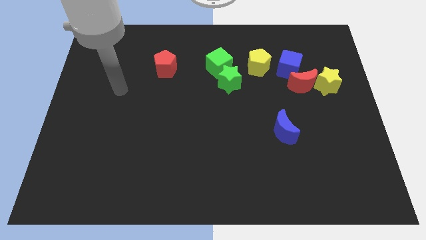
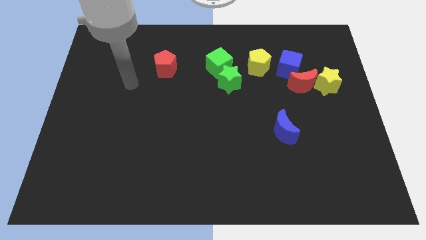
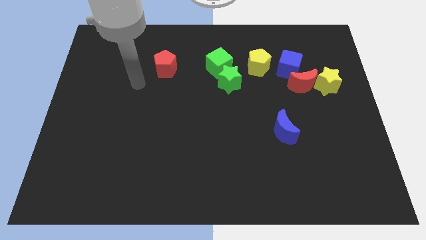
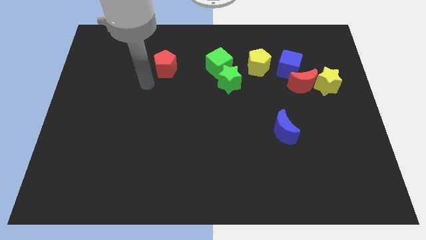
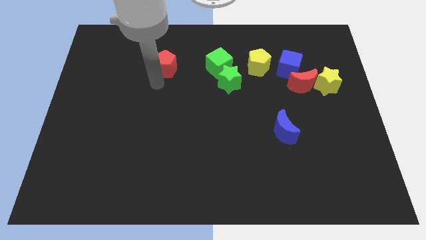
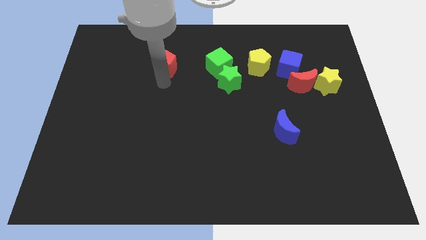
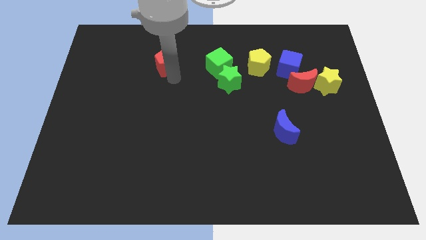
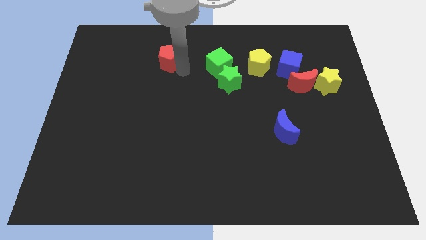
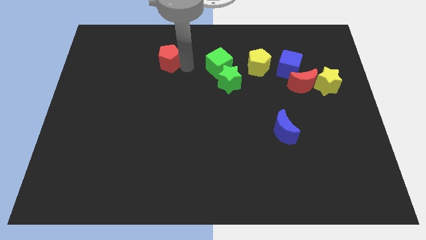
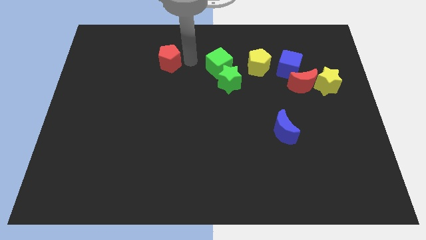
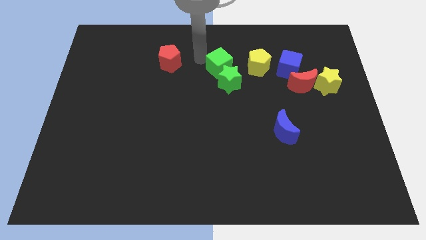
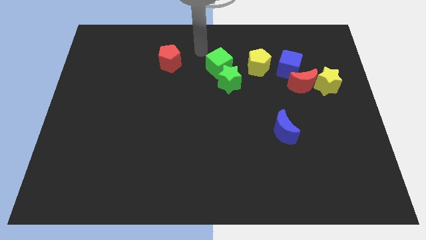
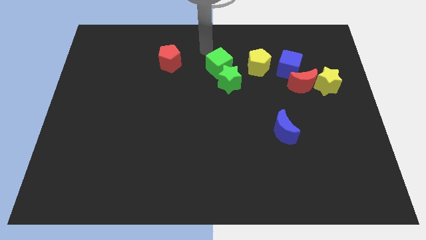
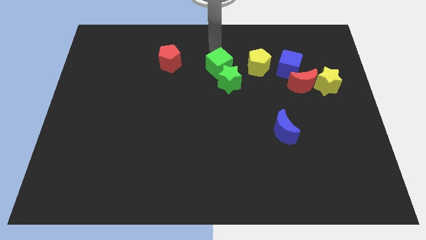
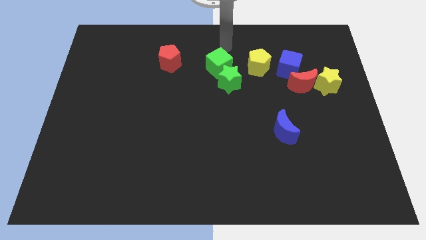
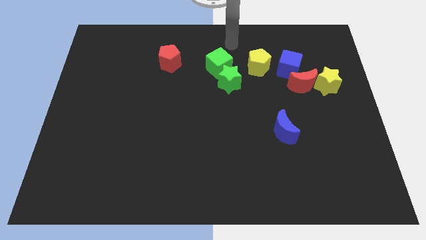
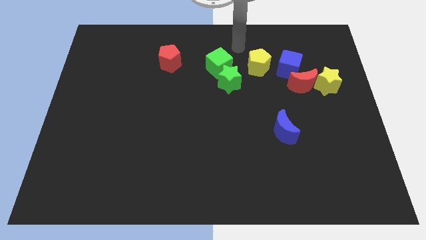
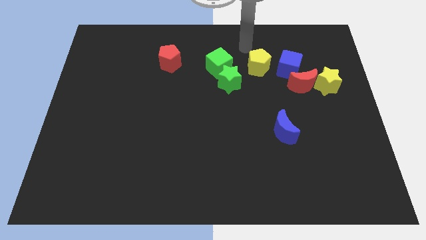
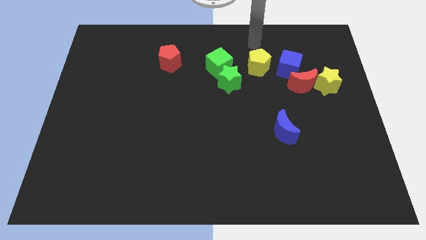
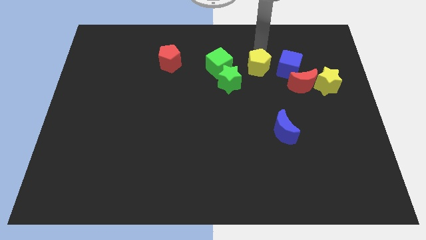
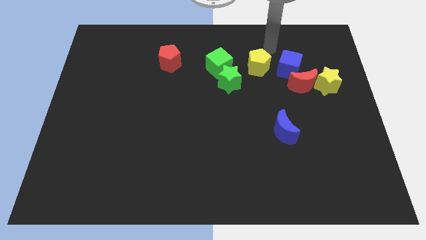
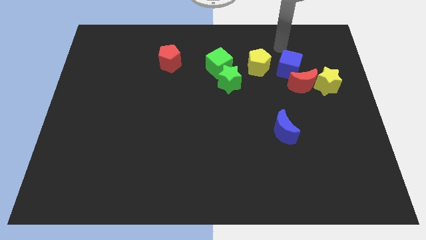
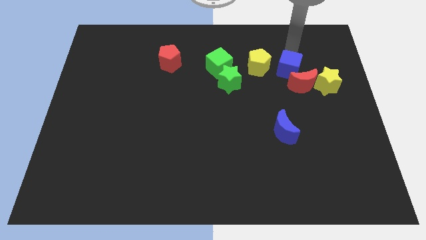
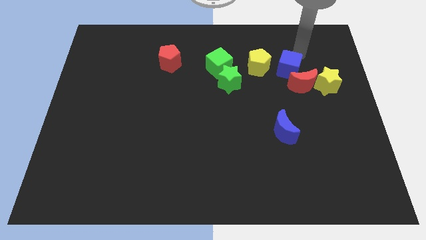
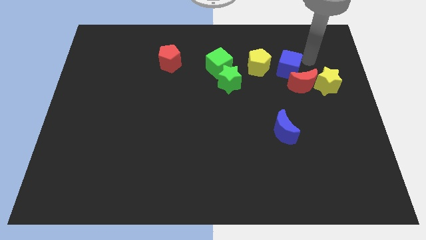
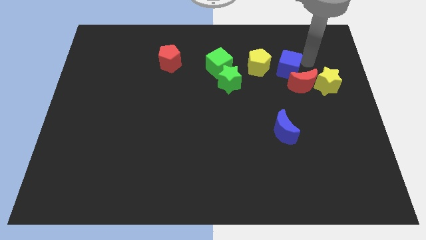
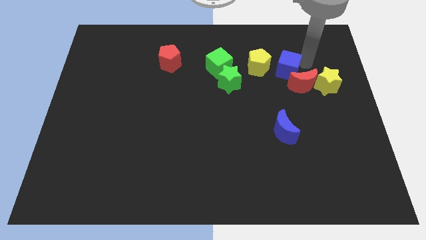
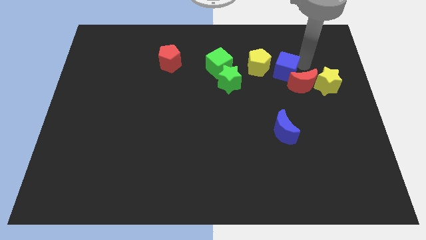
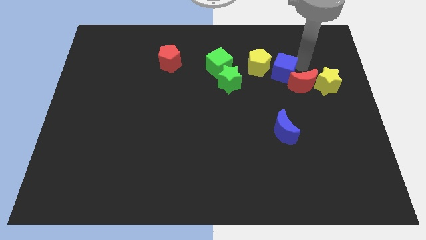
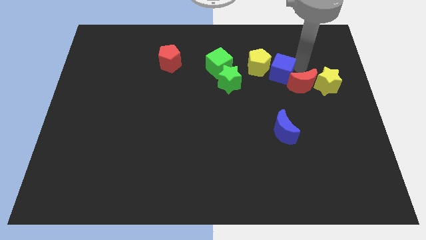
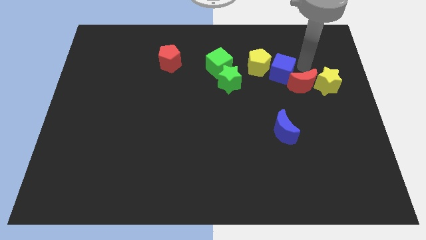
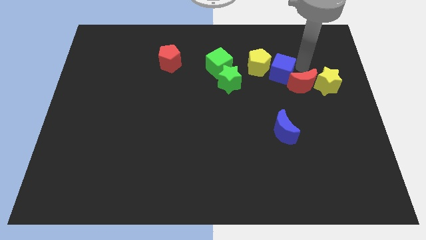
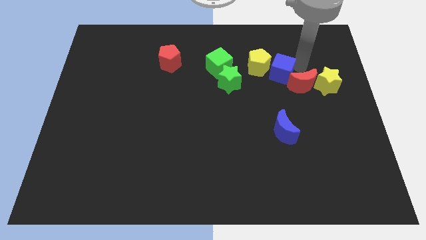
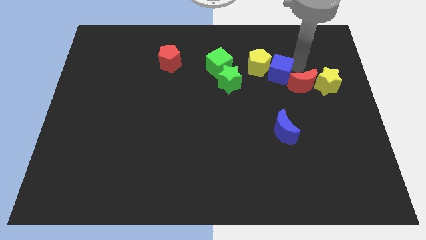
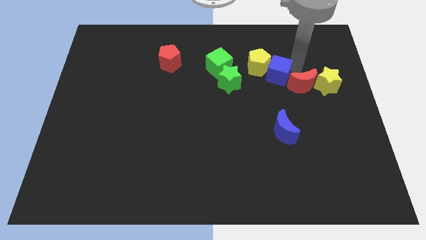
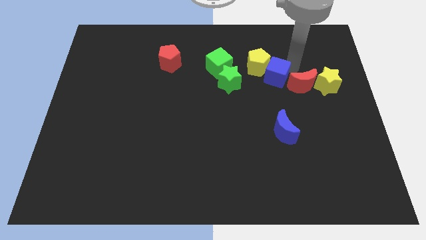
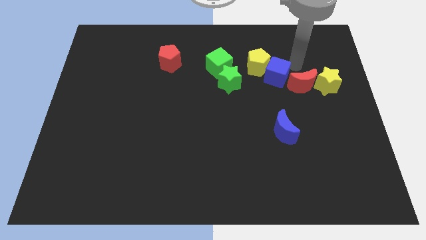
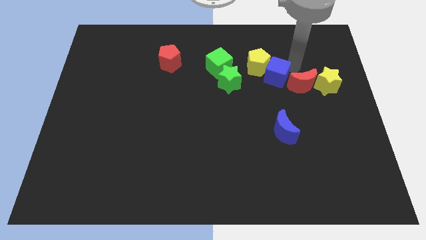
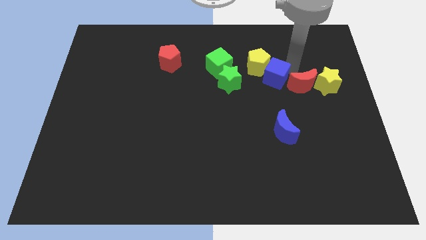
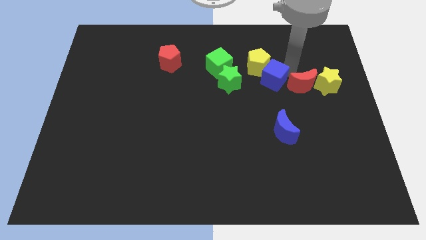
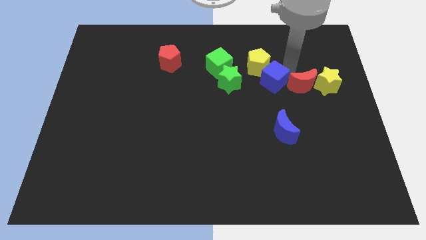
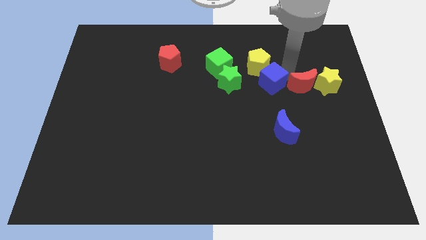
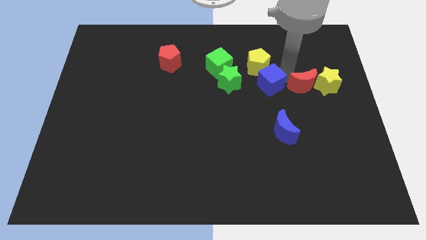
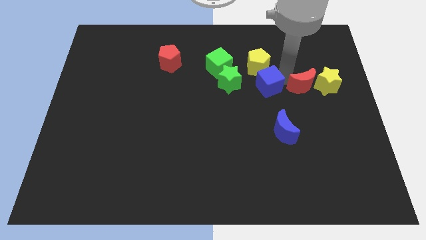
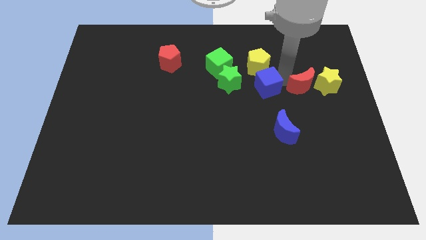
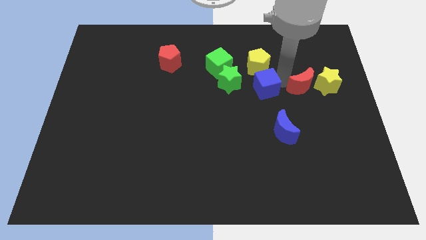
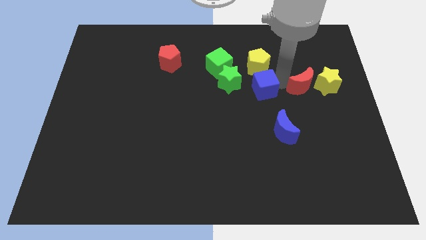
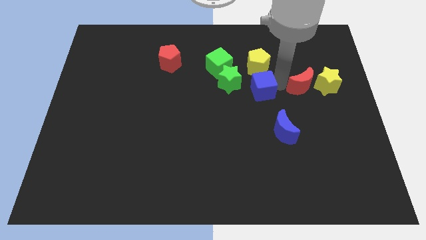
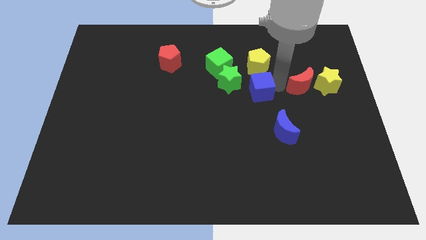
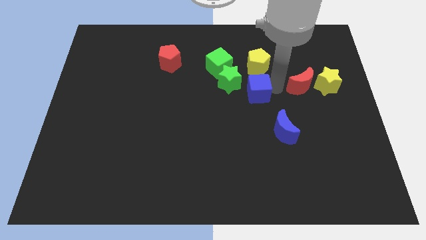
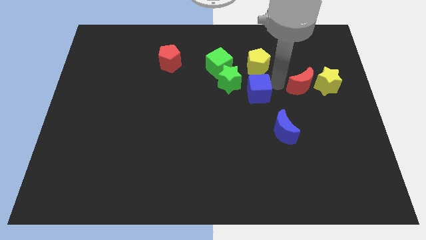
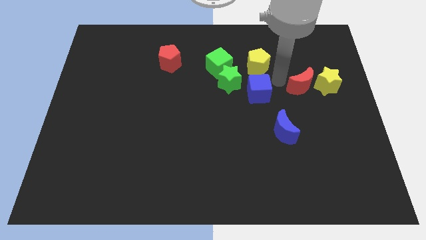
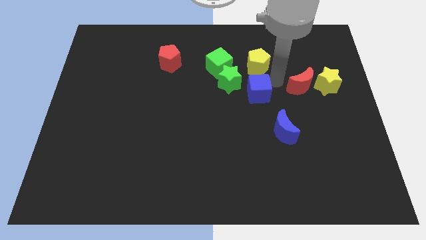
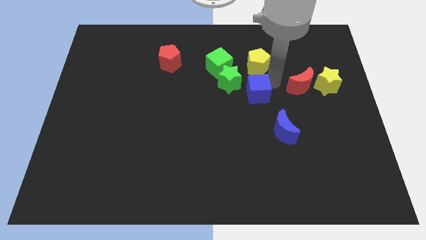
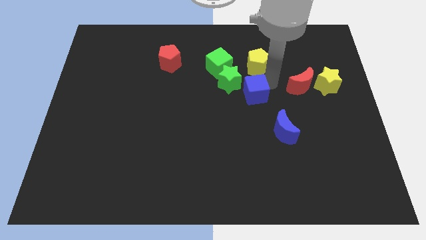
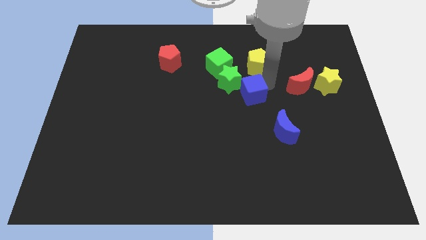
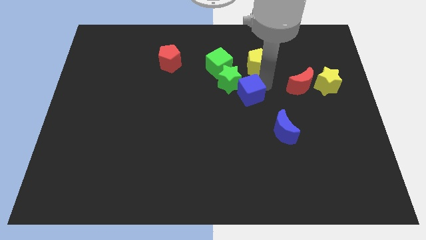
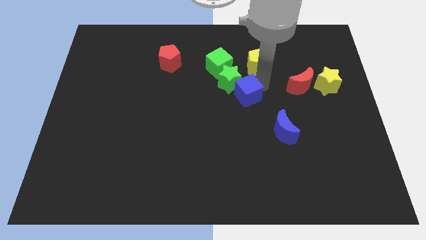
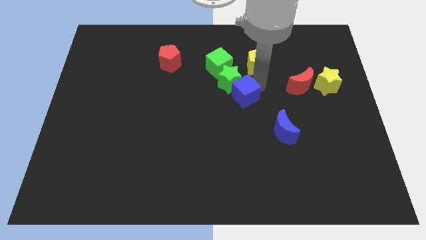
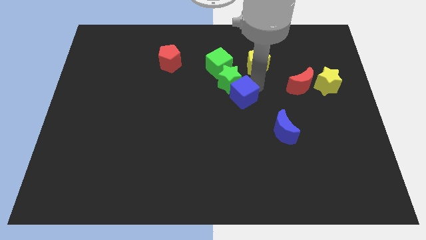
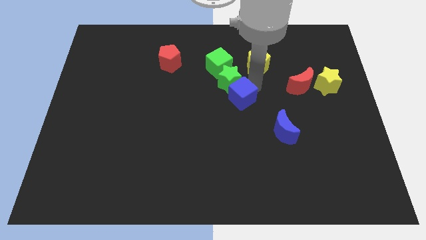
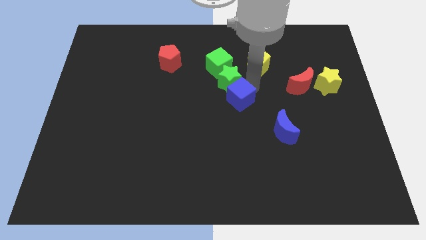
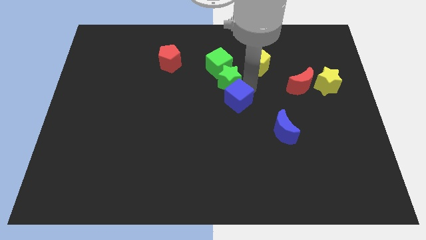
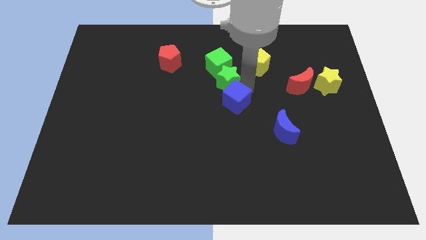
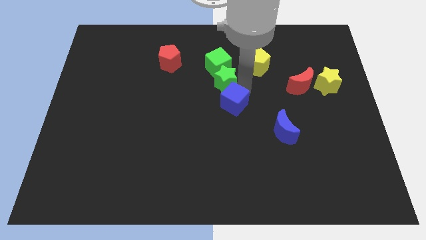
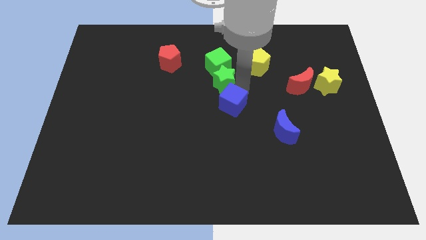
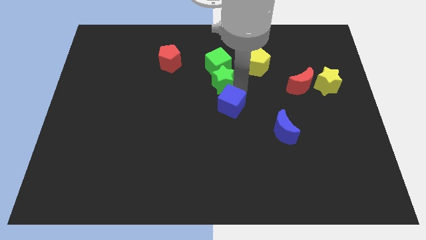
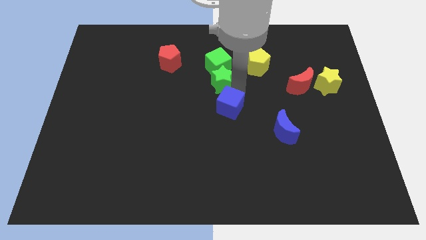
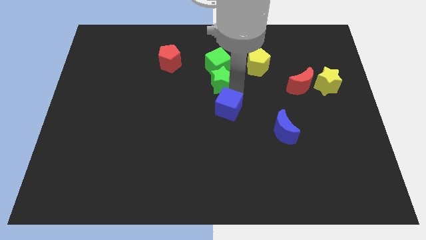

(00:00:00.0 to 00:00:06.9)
push the blue cube diagonally down and left

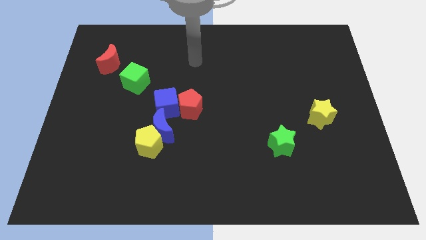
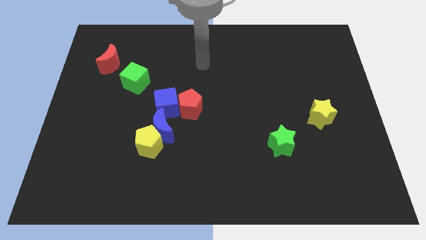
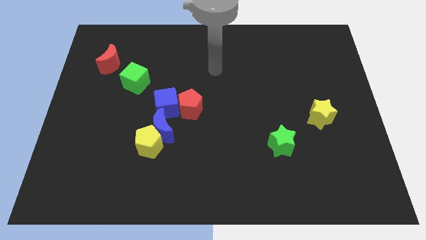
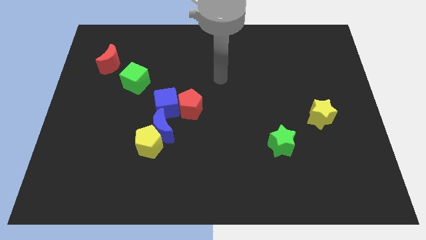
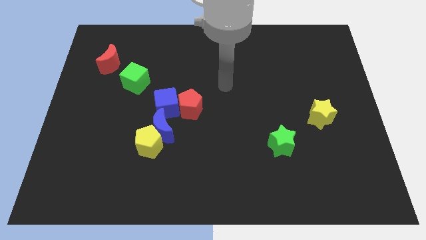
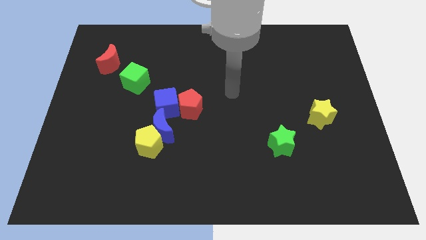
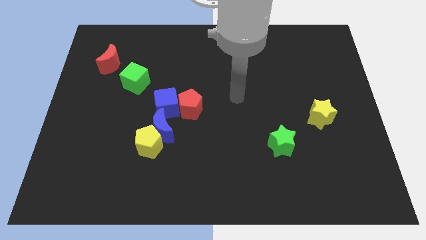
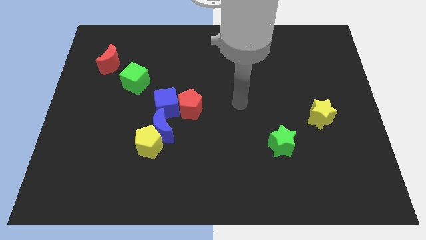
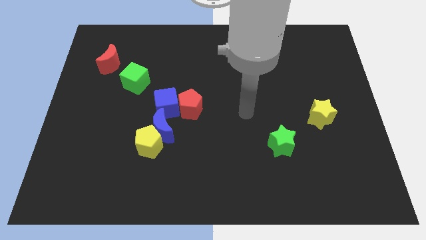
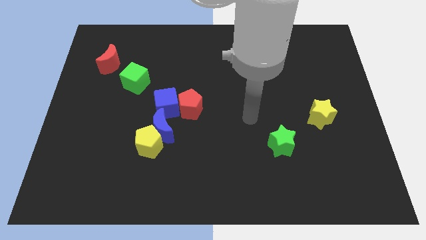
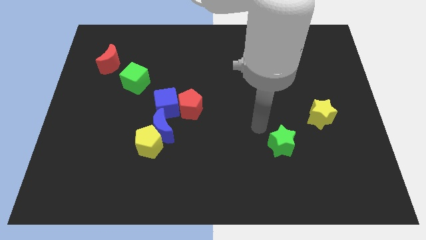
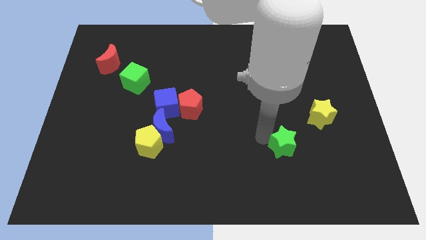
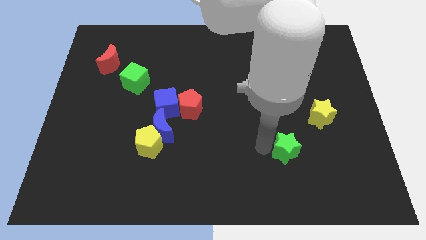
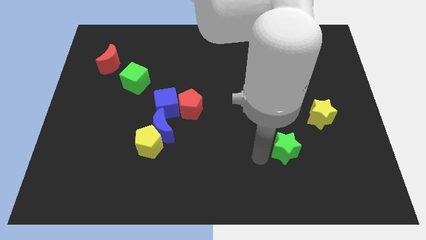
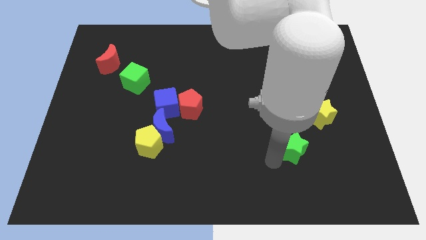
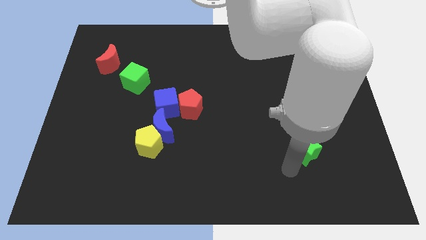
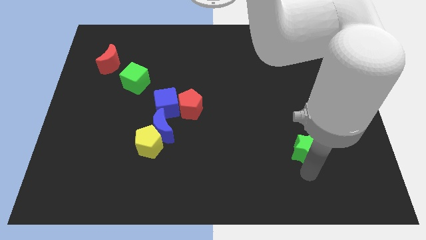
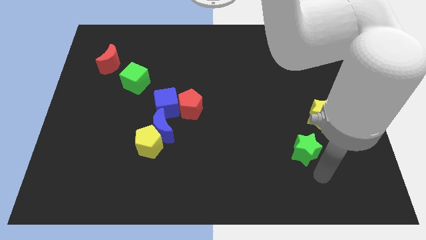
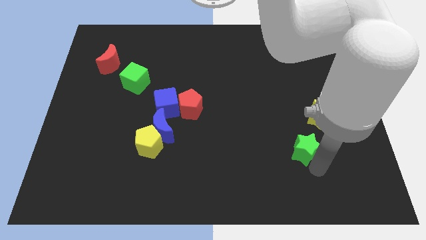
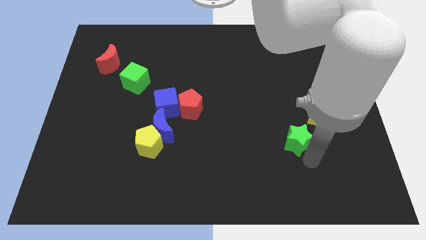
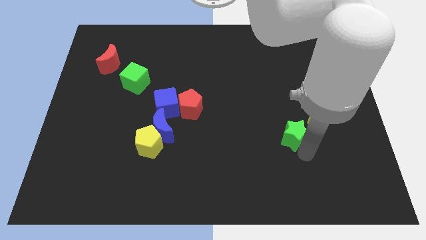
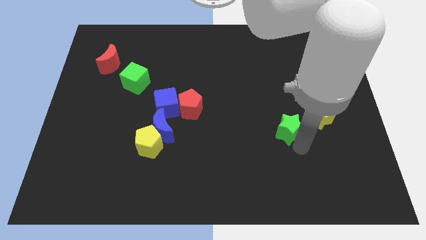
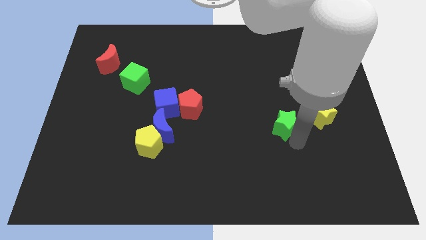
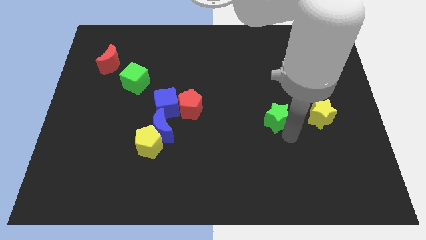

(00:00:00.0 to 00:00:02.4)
slide the green star upwards a bit
